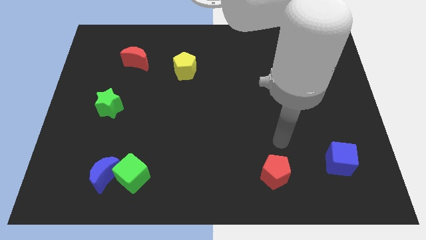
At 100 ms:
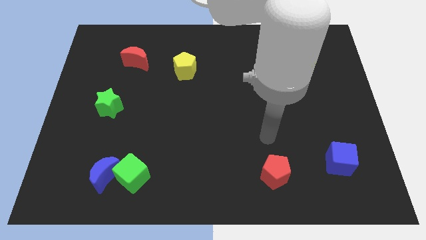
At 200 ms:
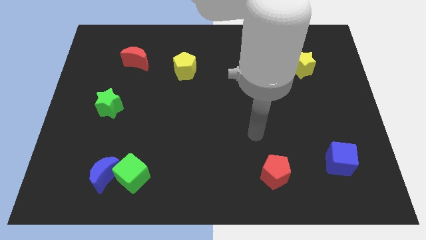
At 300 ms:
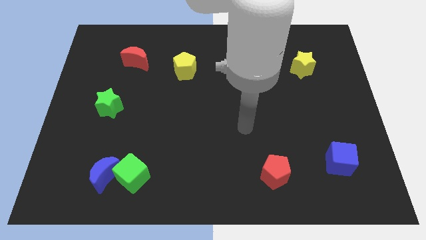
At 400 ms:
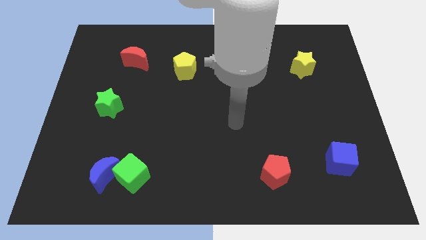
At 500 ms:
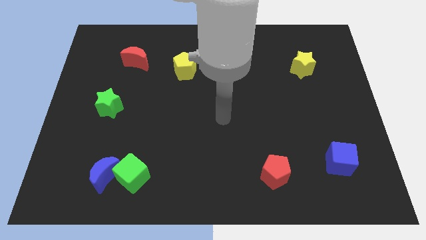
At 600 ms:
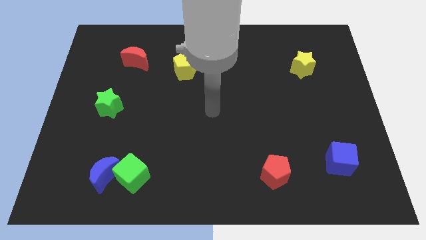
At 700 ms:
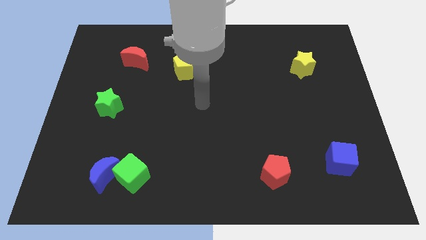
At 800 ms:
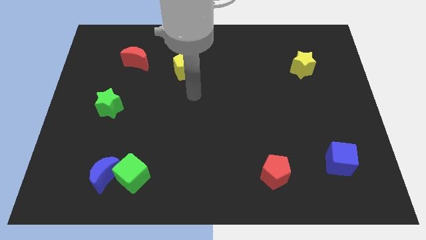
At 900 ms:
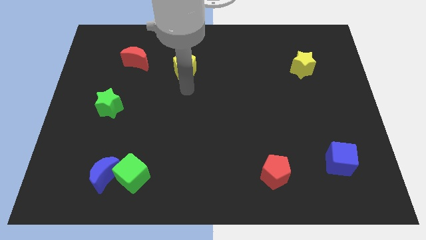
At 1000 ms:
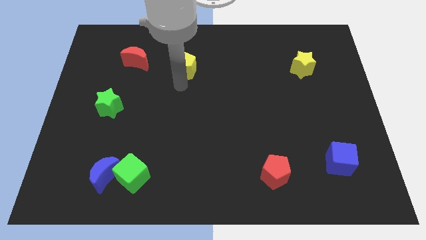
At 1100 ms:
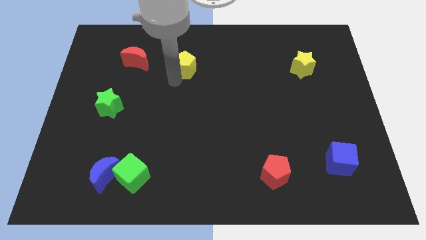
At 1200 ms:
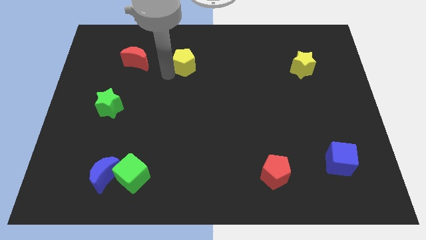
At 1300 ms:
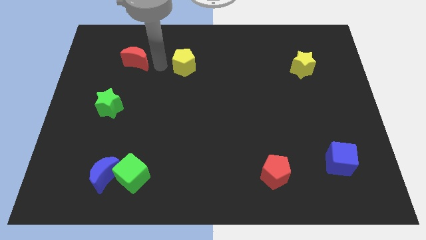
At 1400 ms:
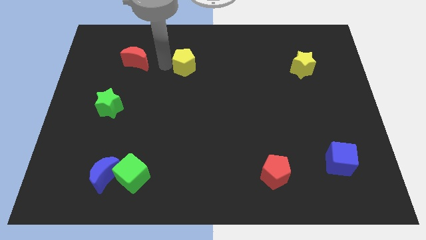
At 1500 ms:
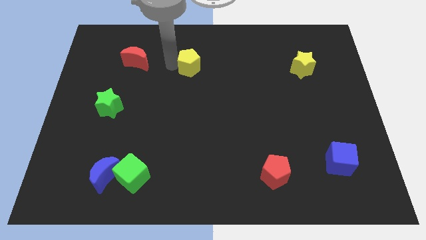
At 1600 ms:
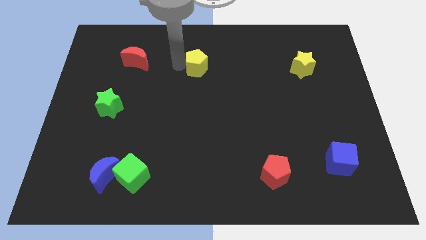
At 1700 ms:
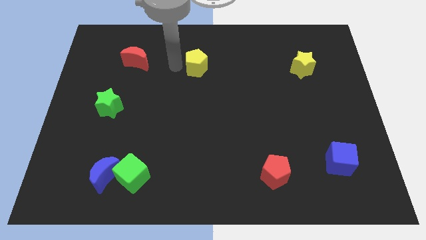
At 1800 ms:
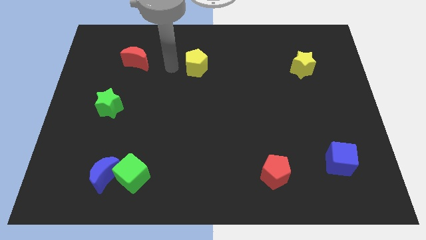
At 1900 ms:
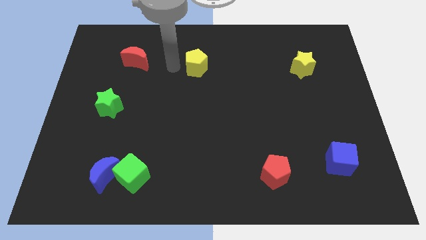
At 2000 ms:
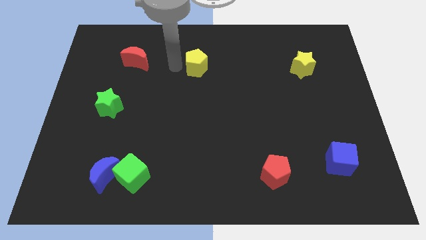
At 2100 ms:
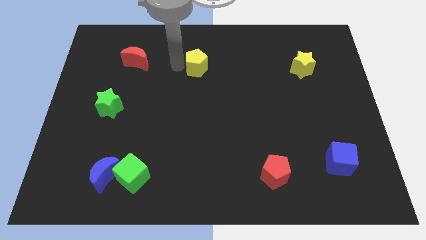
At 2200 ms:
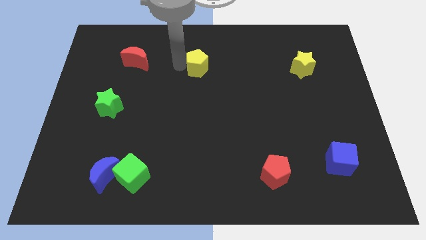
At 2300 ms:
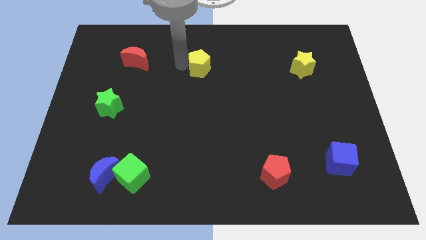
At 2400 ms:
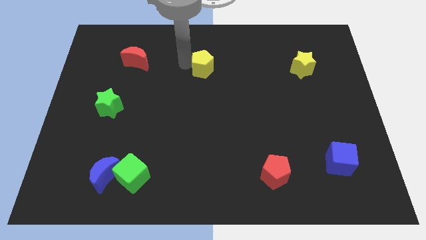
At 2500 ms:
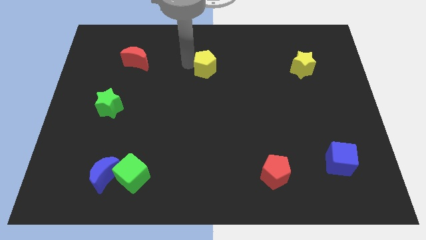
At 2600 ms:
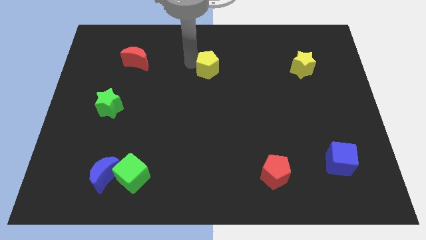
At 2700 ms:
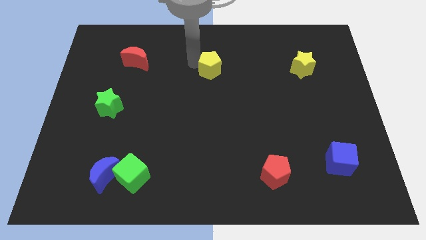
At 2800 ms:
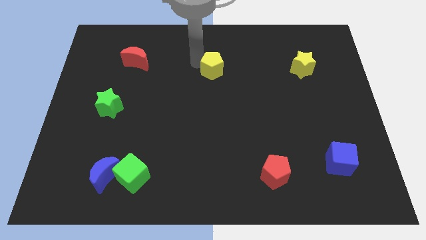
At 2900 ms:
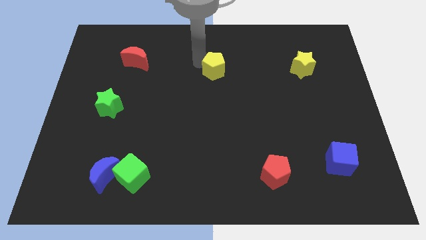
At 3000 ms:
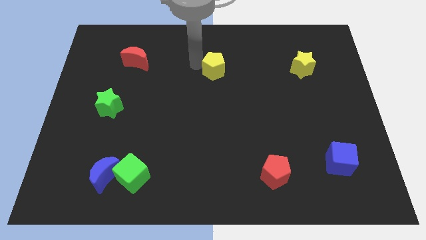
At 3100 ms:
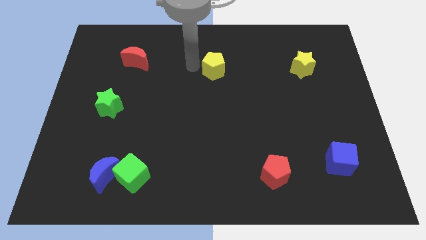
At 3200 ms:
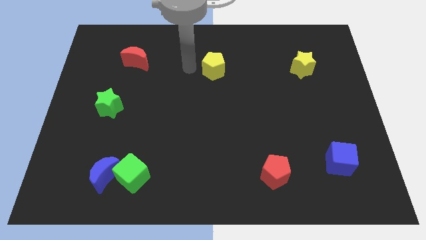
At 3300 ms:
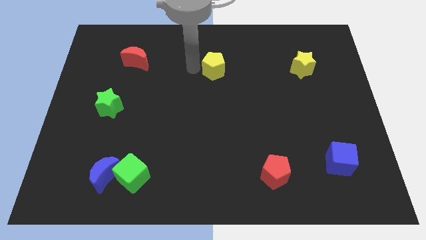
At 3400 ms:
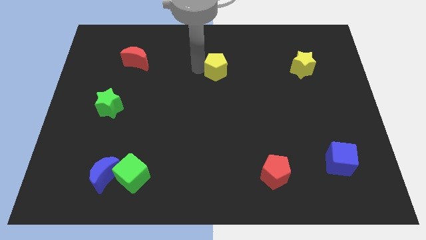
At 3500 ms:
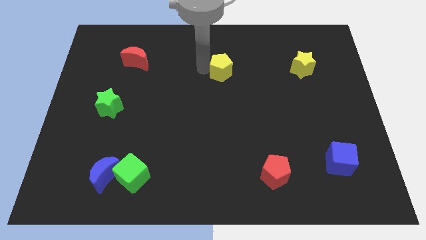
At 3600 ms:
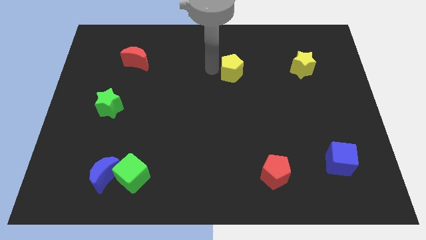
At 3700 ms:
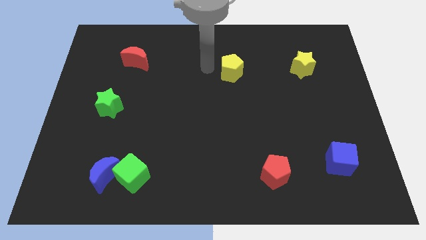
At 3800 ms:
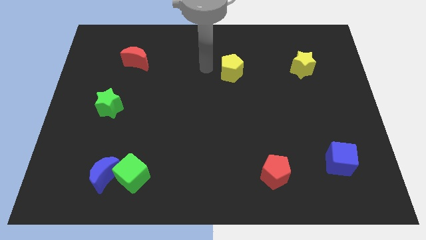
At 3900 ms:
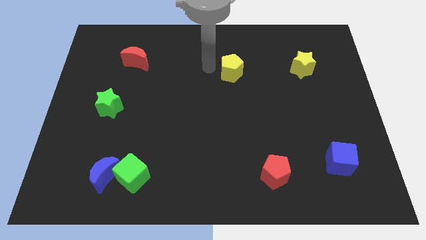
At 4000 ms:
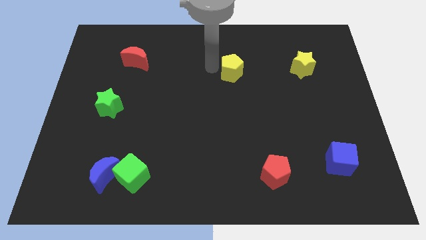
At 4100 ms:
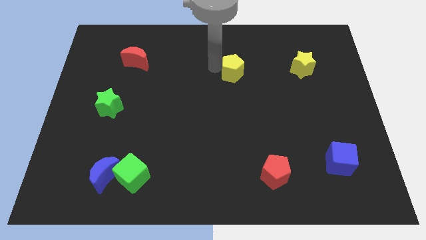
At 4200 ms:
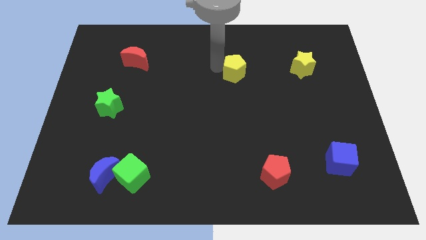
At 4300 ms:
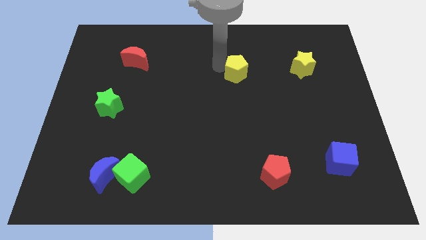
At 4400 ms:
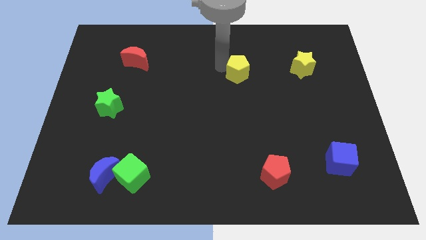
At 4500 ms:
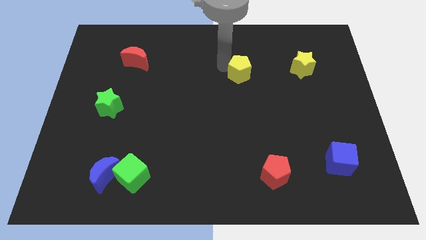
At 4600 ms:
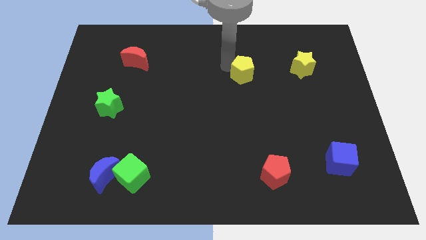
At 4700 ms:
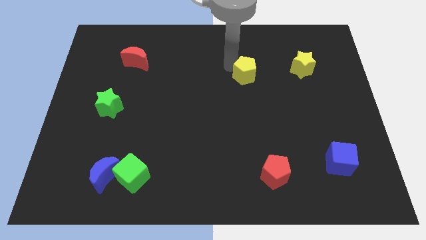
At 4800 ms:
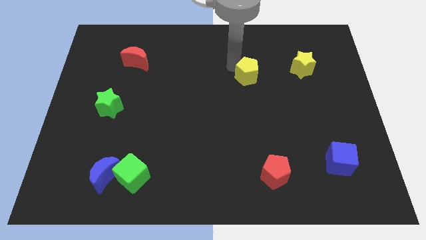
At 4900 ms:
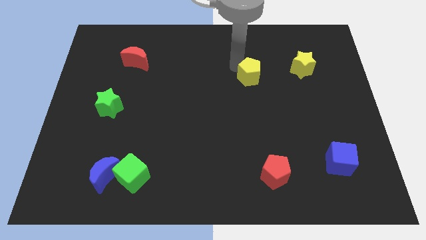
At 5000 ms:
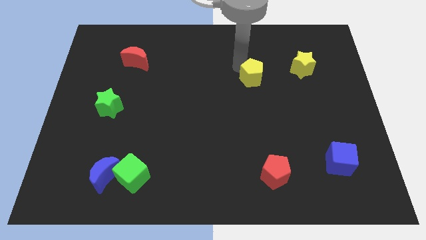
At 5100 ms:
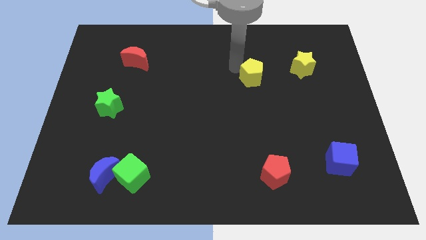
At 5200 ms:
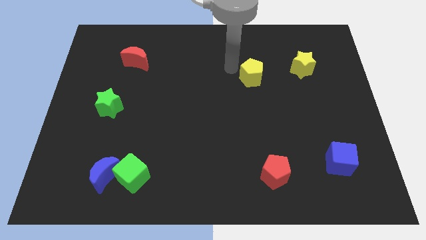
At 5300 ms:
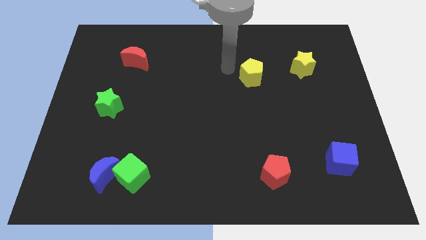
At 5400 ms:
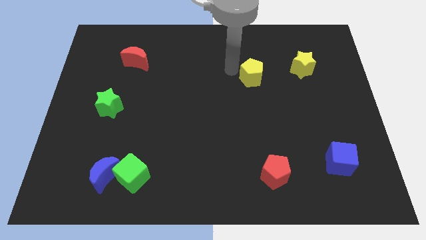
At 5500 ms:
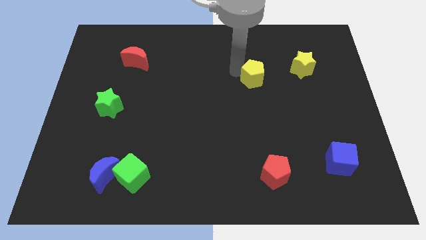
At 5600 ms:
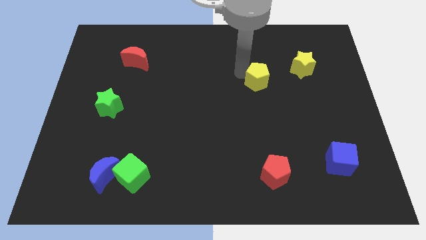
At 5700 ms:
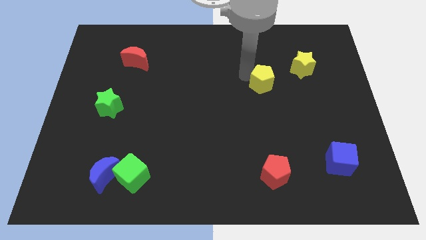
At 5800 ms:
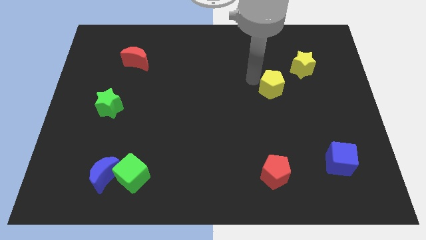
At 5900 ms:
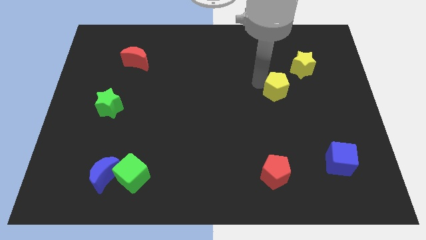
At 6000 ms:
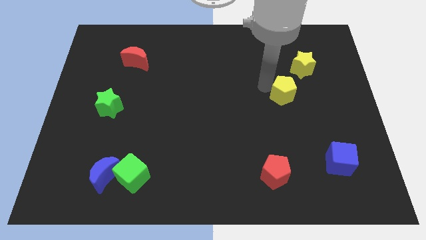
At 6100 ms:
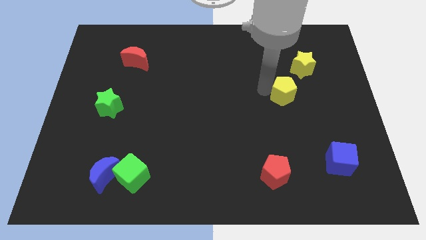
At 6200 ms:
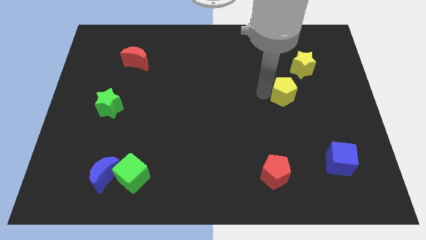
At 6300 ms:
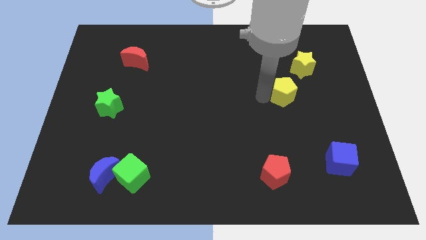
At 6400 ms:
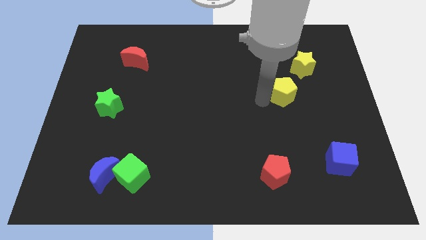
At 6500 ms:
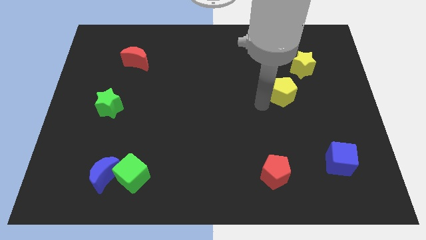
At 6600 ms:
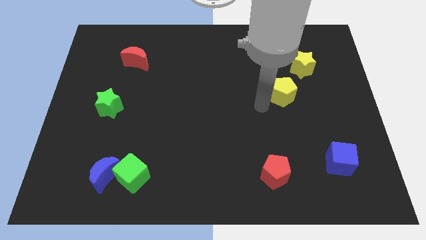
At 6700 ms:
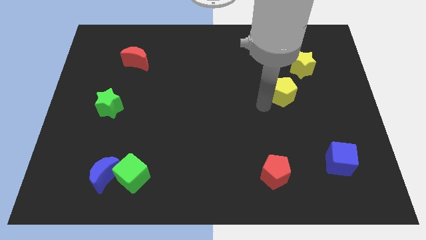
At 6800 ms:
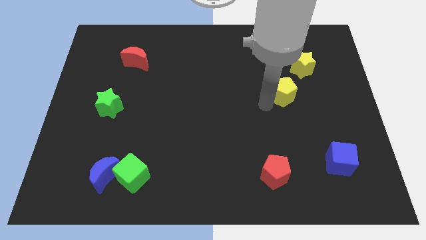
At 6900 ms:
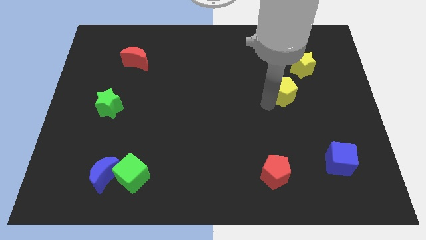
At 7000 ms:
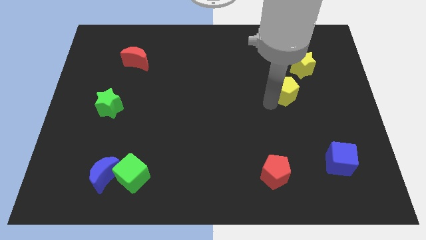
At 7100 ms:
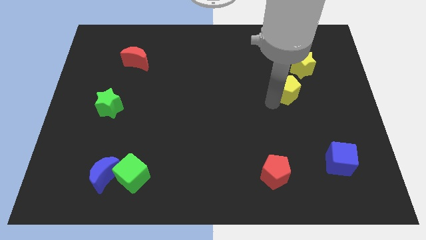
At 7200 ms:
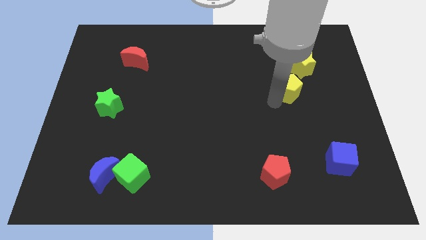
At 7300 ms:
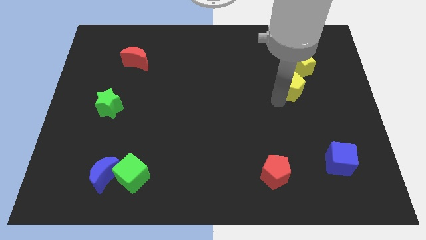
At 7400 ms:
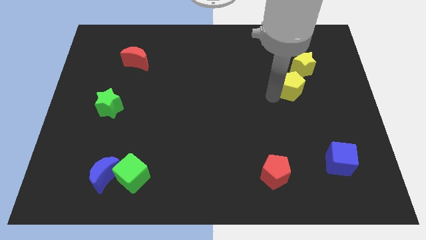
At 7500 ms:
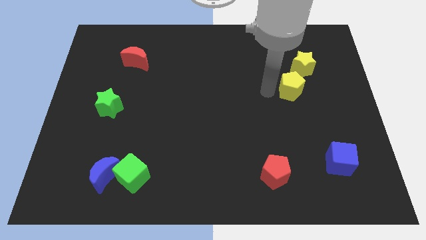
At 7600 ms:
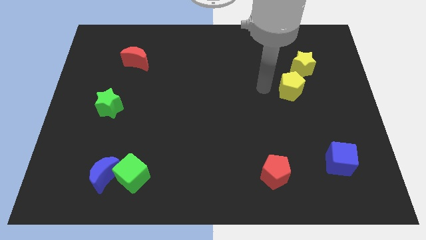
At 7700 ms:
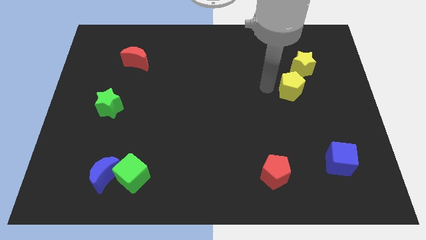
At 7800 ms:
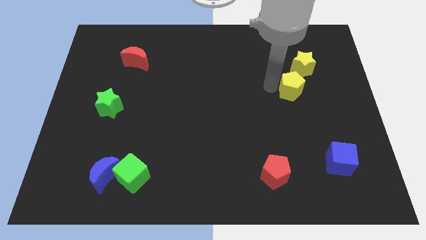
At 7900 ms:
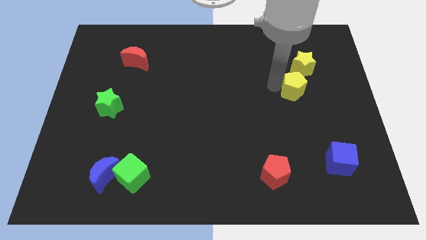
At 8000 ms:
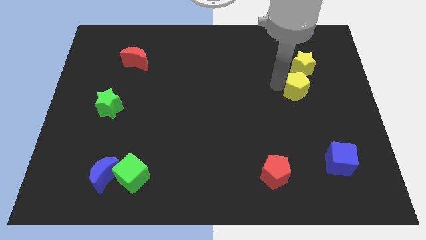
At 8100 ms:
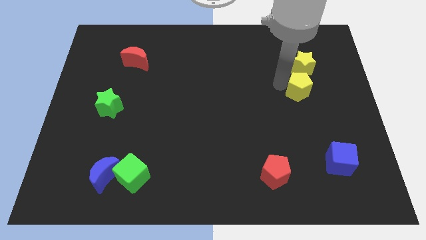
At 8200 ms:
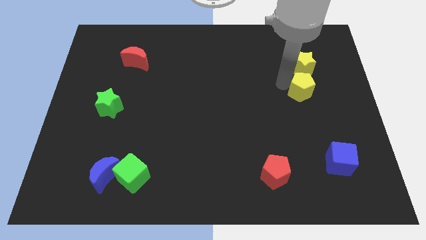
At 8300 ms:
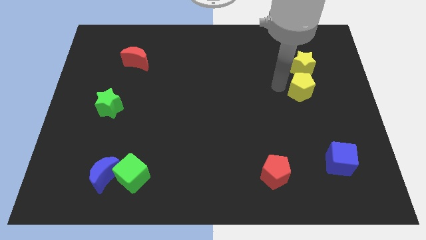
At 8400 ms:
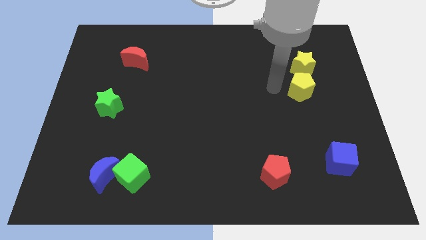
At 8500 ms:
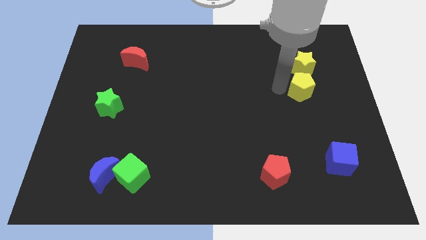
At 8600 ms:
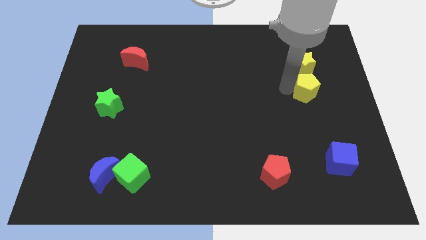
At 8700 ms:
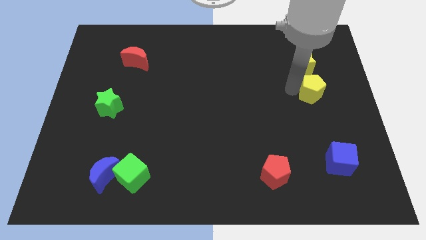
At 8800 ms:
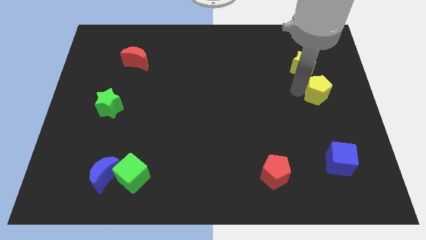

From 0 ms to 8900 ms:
push the yellow pentagon to the center right
